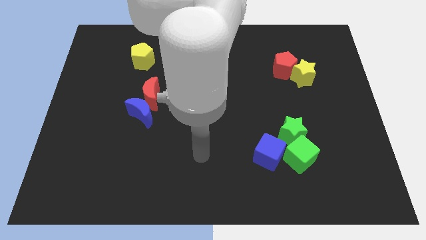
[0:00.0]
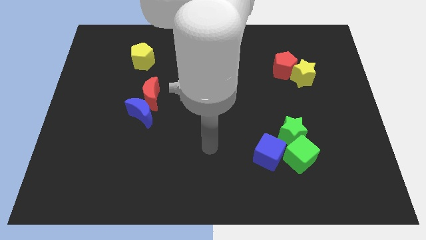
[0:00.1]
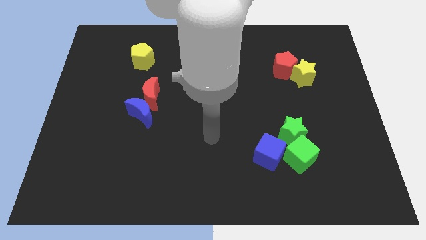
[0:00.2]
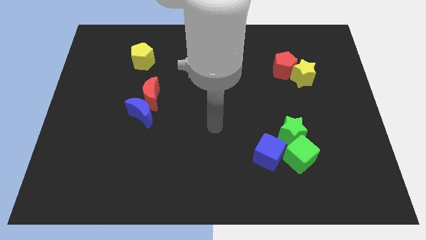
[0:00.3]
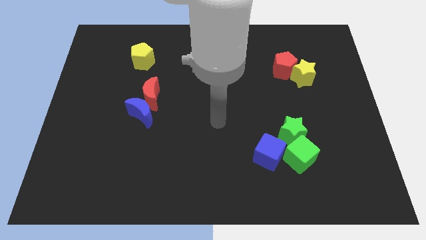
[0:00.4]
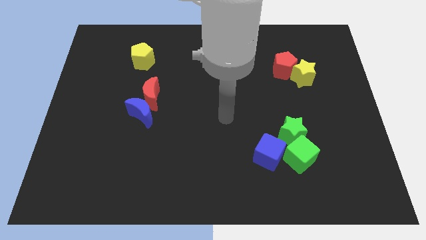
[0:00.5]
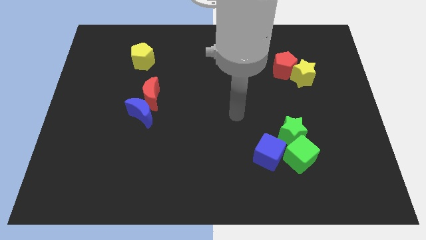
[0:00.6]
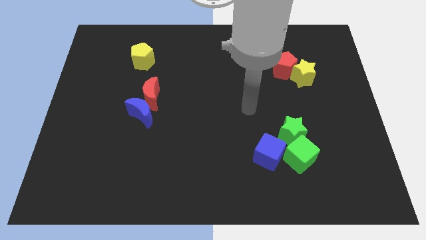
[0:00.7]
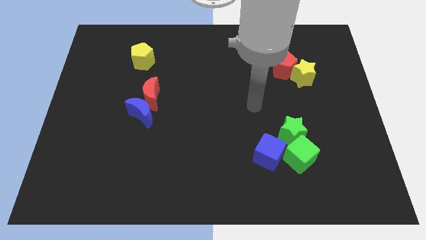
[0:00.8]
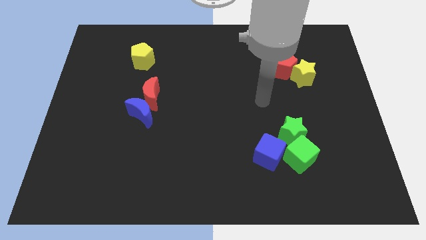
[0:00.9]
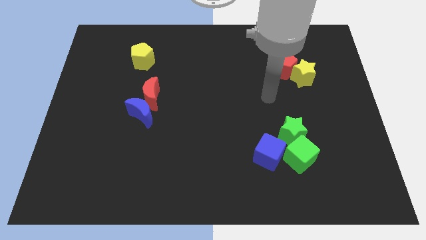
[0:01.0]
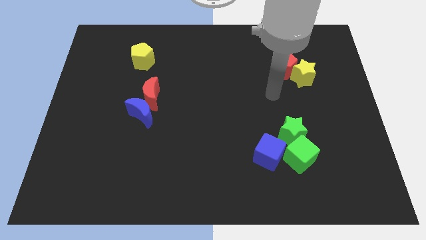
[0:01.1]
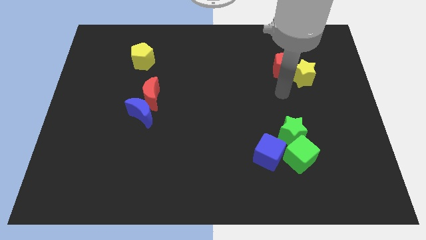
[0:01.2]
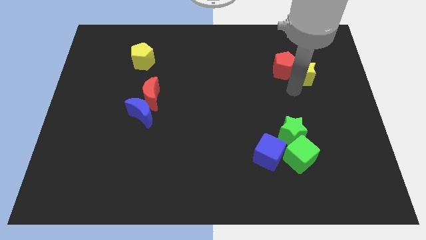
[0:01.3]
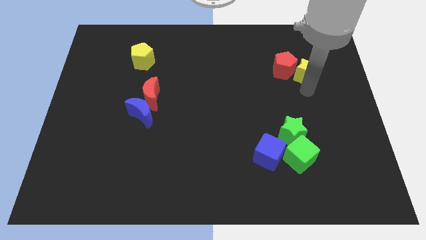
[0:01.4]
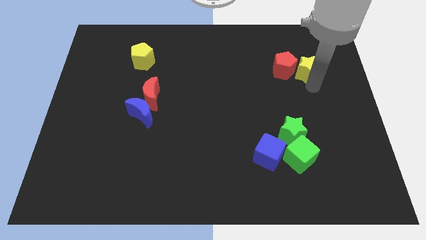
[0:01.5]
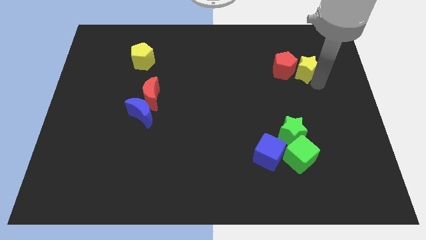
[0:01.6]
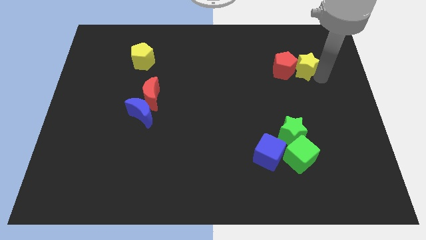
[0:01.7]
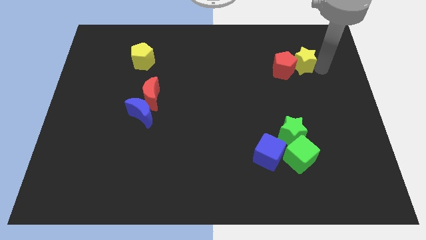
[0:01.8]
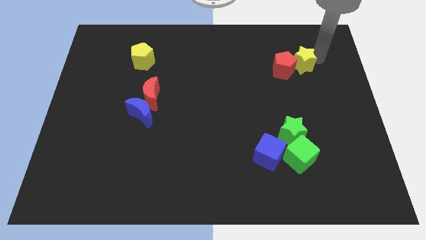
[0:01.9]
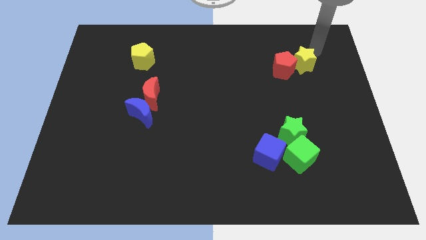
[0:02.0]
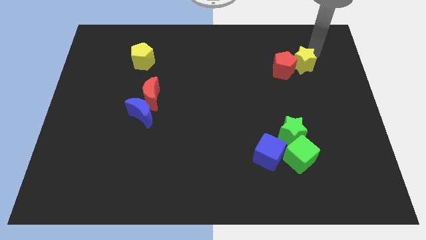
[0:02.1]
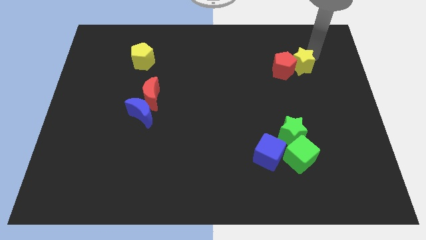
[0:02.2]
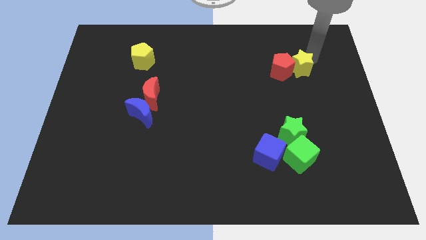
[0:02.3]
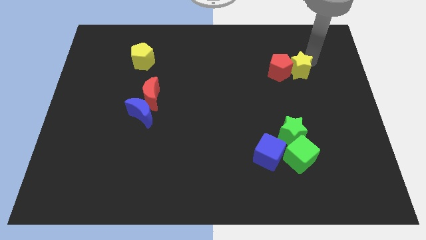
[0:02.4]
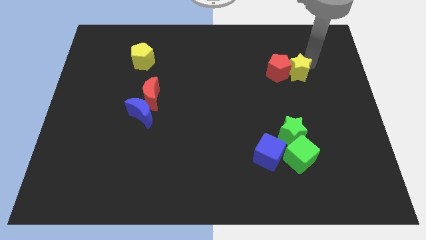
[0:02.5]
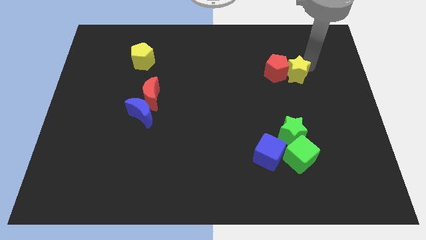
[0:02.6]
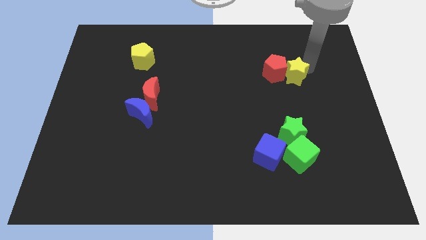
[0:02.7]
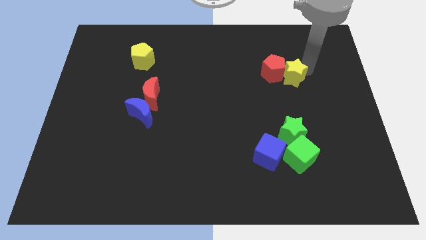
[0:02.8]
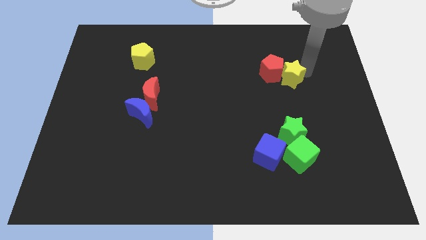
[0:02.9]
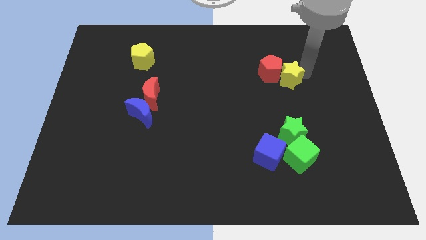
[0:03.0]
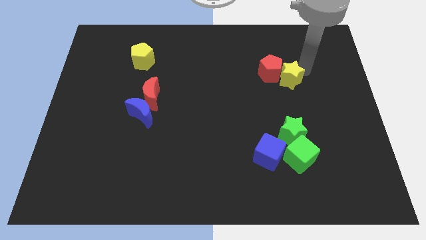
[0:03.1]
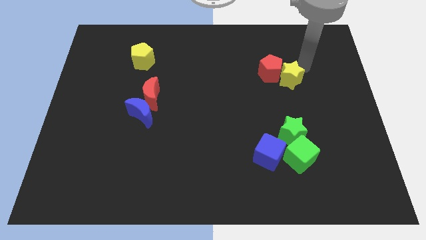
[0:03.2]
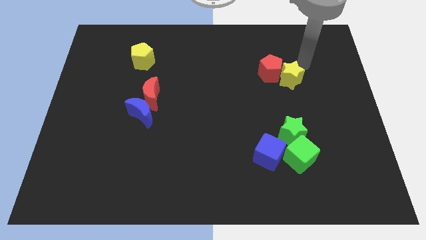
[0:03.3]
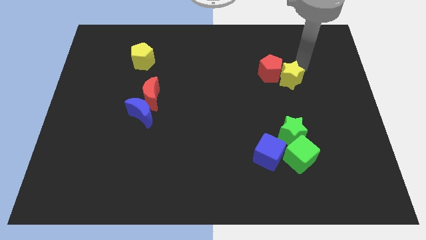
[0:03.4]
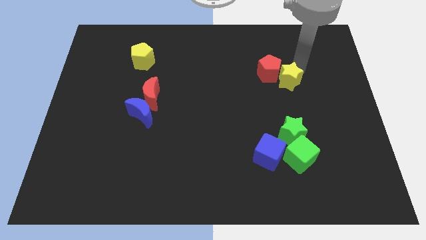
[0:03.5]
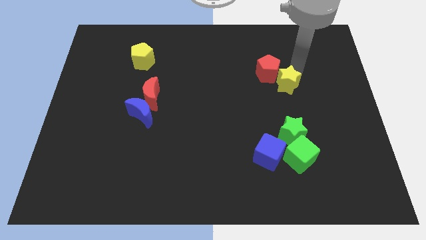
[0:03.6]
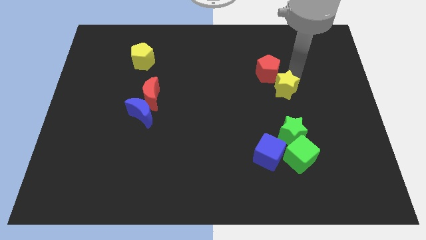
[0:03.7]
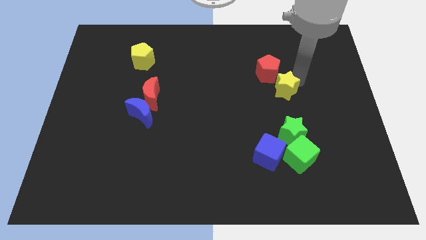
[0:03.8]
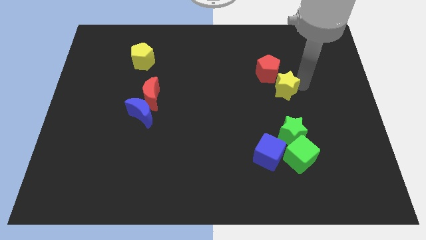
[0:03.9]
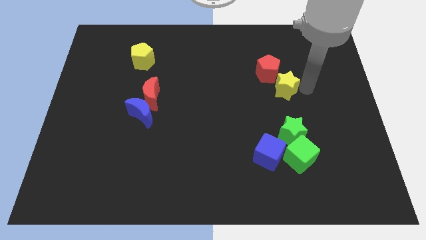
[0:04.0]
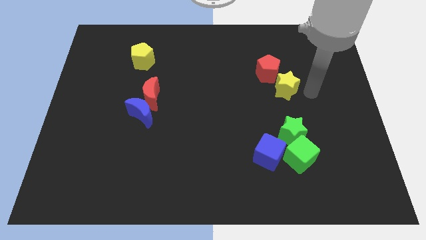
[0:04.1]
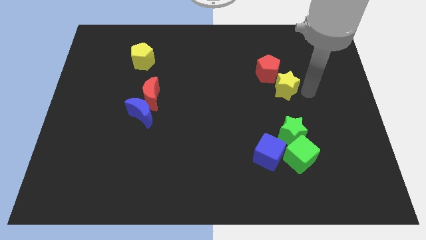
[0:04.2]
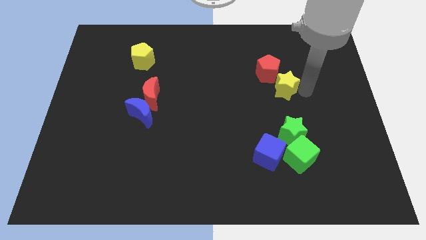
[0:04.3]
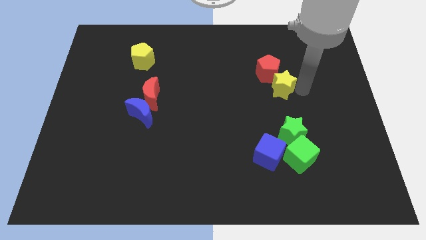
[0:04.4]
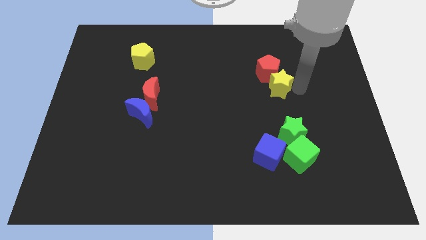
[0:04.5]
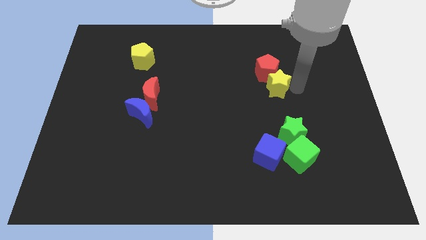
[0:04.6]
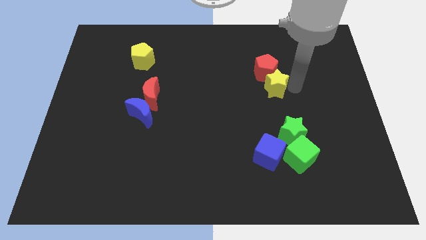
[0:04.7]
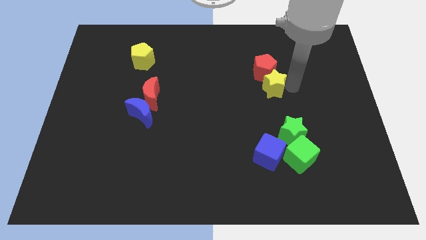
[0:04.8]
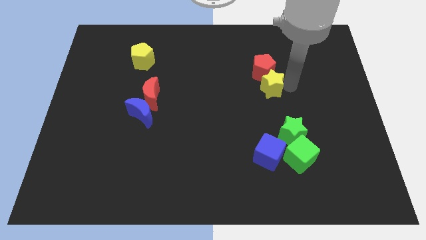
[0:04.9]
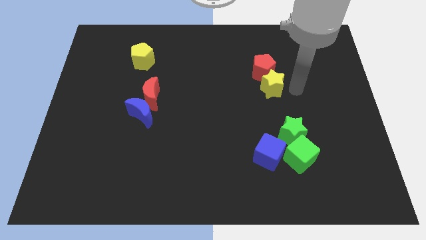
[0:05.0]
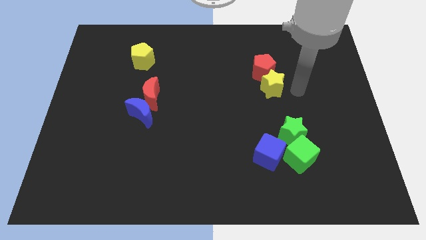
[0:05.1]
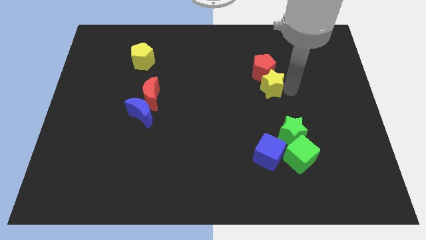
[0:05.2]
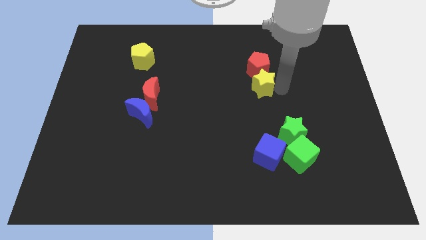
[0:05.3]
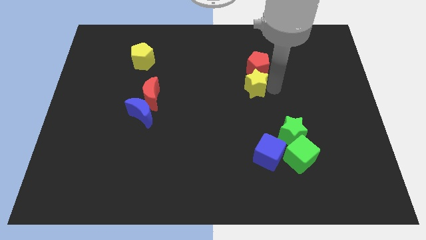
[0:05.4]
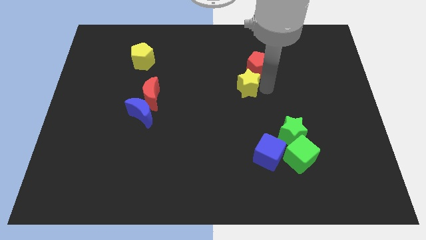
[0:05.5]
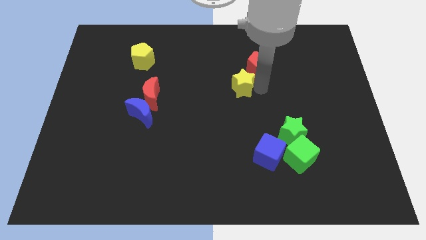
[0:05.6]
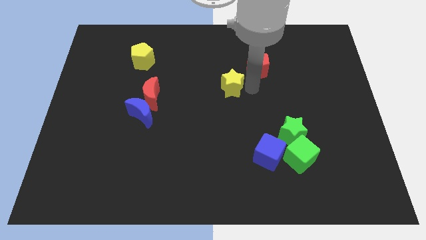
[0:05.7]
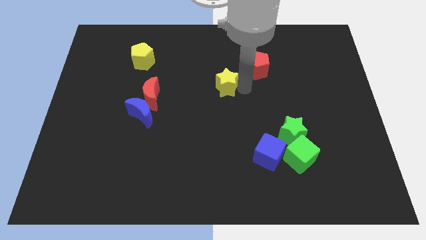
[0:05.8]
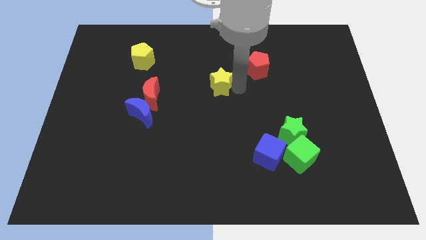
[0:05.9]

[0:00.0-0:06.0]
push the yellow star left

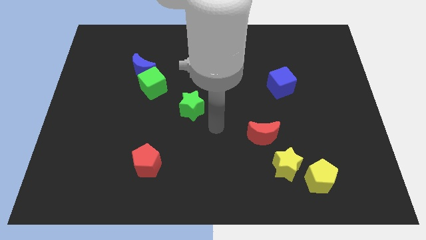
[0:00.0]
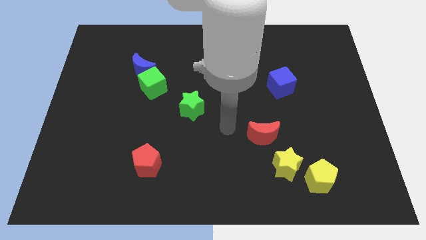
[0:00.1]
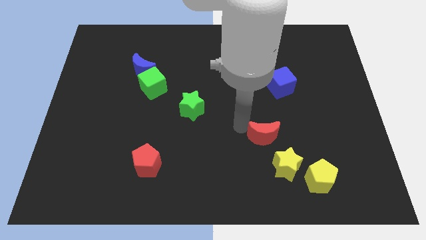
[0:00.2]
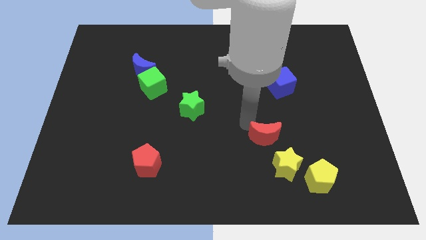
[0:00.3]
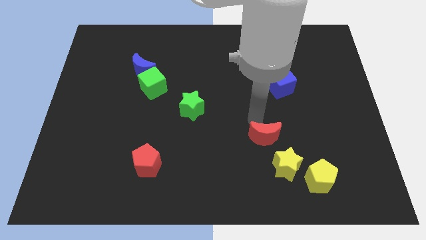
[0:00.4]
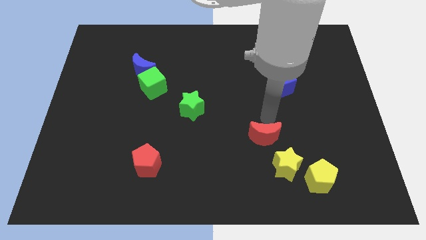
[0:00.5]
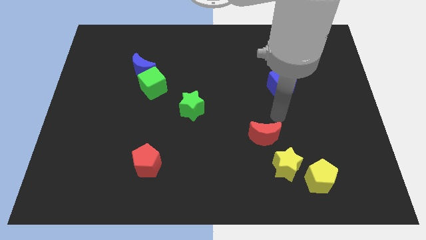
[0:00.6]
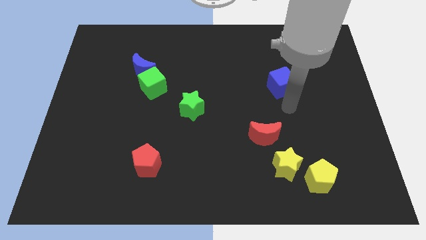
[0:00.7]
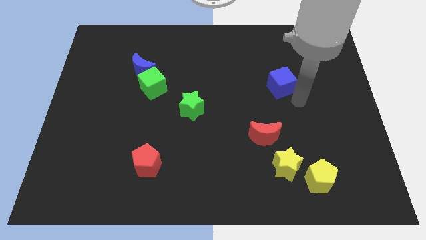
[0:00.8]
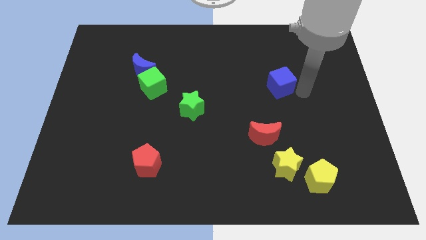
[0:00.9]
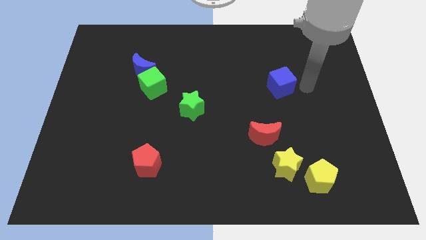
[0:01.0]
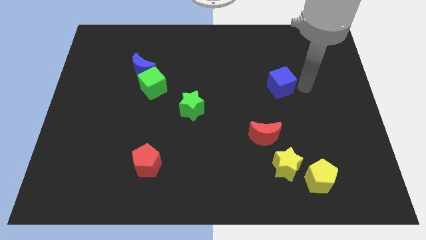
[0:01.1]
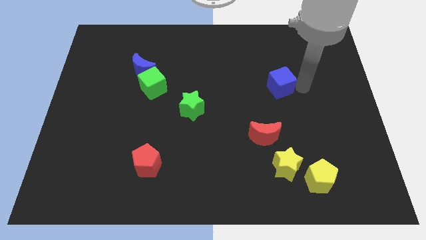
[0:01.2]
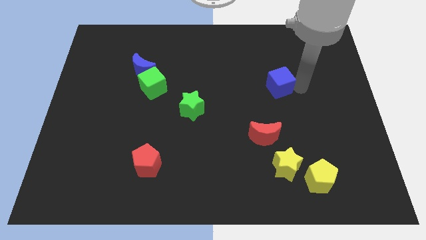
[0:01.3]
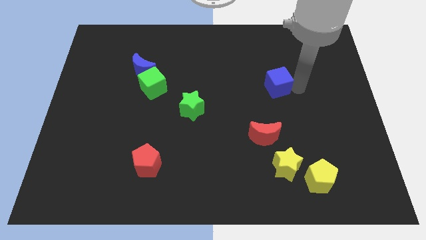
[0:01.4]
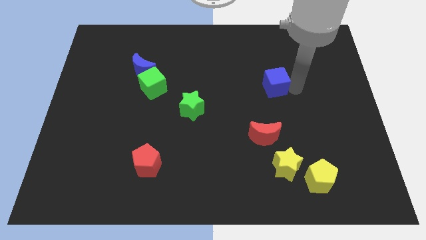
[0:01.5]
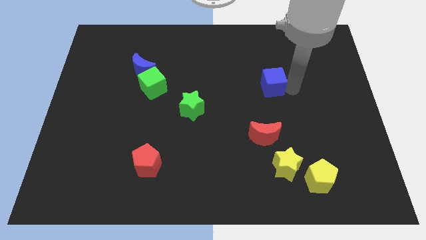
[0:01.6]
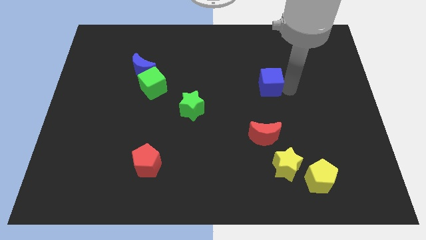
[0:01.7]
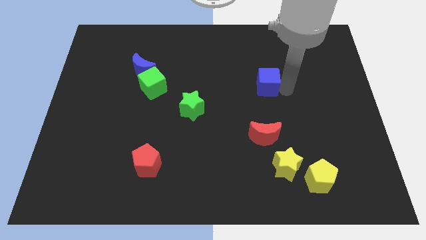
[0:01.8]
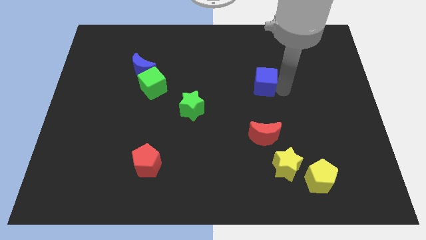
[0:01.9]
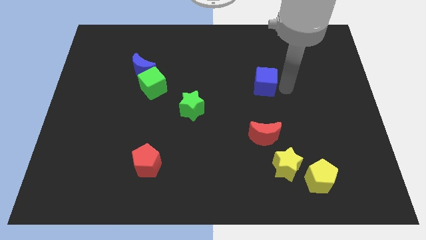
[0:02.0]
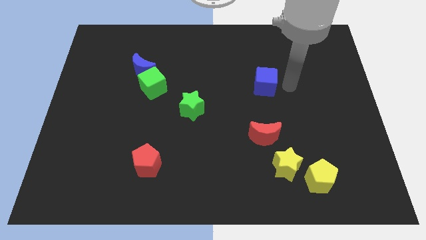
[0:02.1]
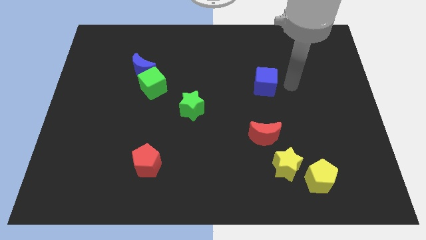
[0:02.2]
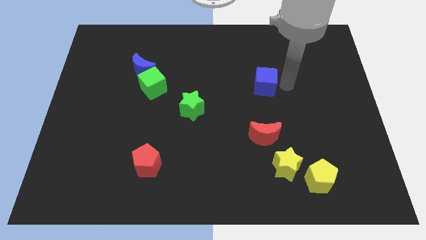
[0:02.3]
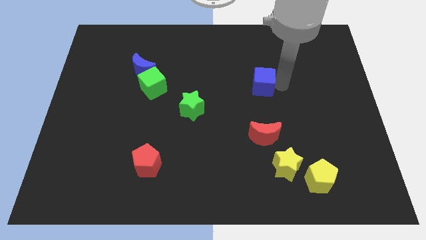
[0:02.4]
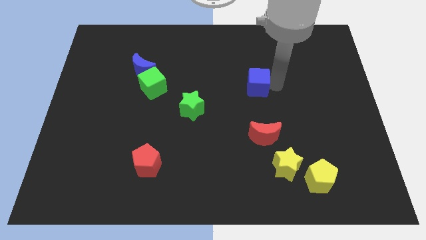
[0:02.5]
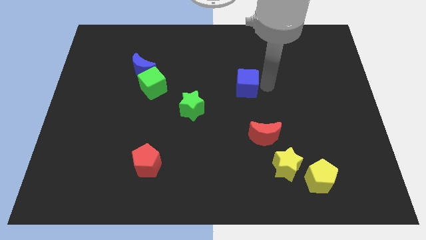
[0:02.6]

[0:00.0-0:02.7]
slightly slide the blue cube left
